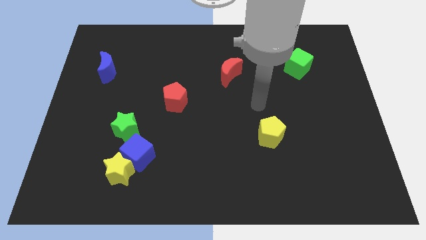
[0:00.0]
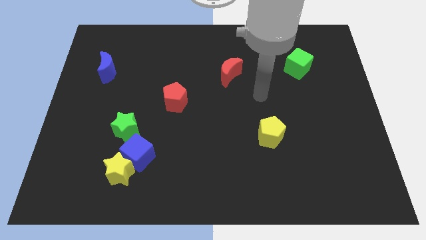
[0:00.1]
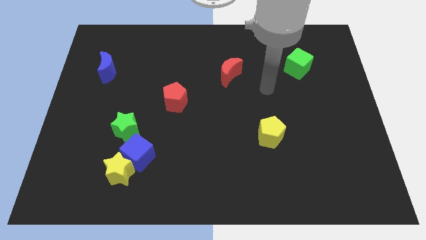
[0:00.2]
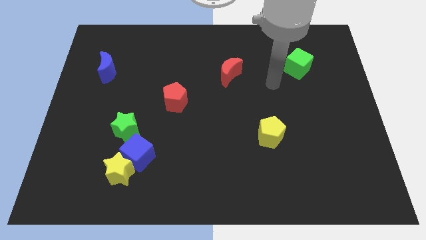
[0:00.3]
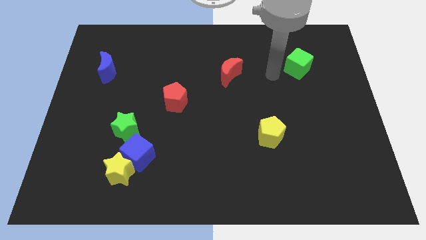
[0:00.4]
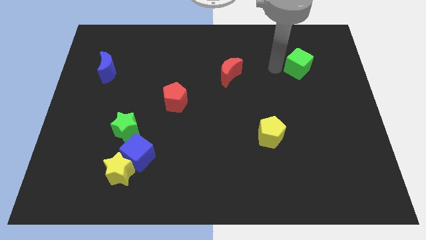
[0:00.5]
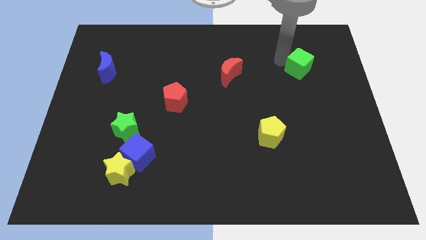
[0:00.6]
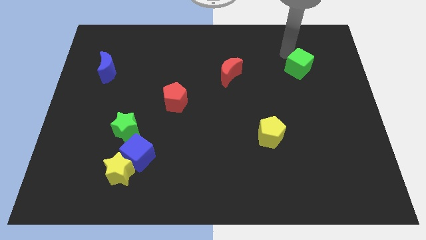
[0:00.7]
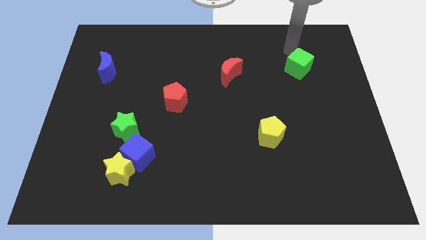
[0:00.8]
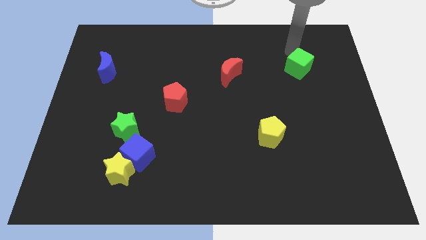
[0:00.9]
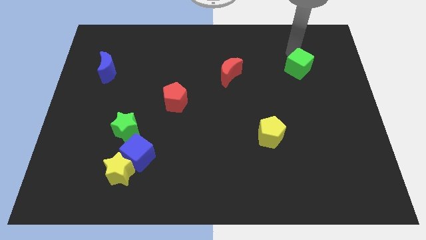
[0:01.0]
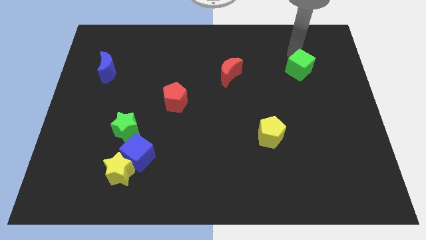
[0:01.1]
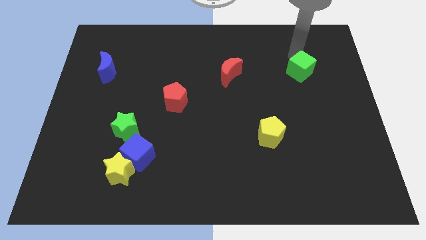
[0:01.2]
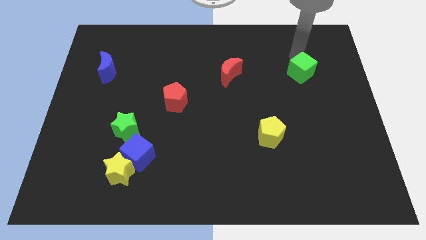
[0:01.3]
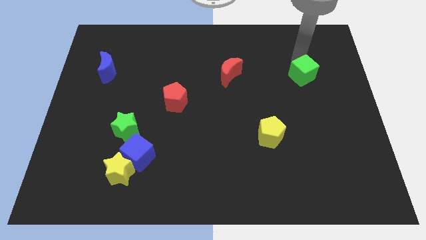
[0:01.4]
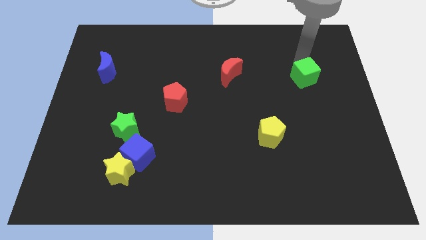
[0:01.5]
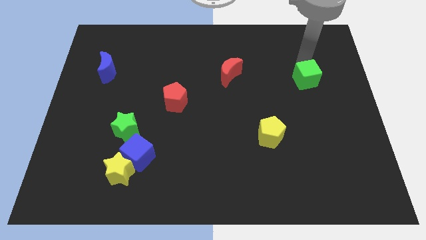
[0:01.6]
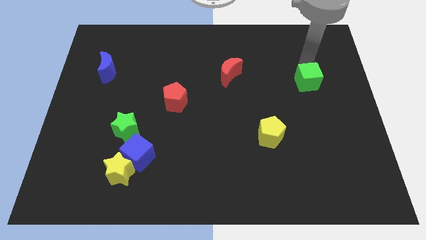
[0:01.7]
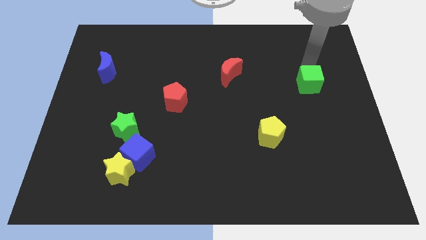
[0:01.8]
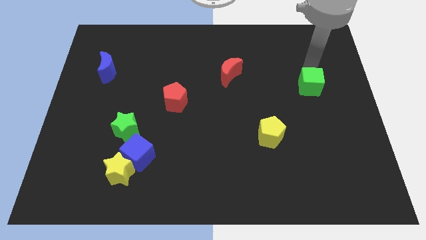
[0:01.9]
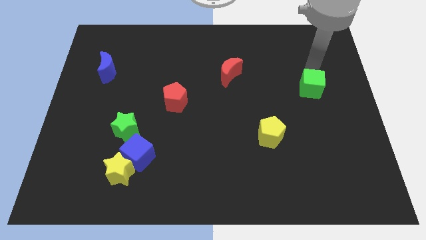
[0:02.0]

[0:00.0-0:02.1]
slide the green cube a little bit down

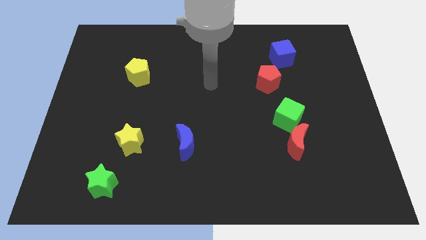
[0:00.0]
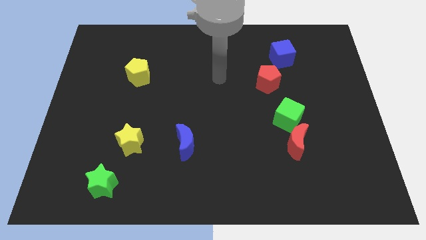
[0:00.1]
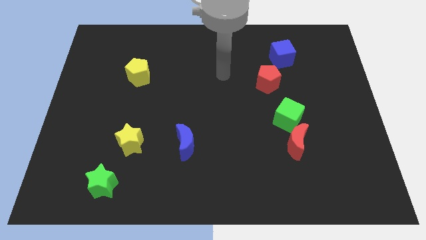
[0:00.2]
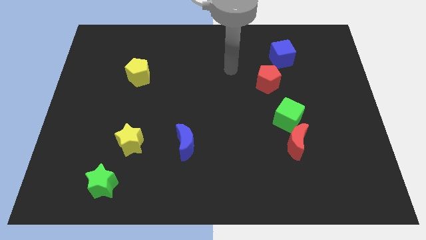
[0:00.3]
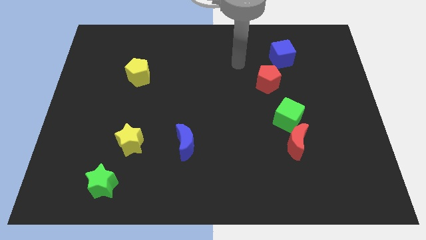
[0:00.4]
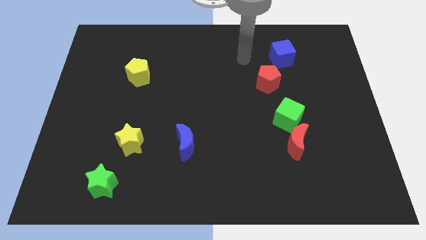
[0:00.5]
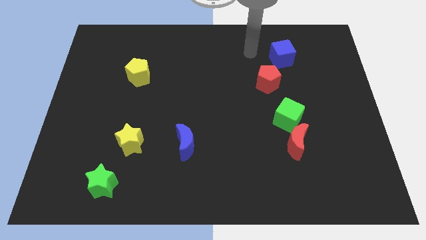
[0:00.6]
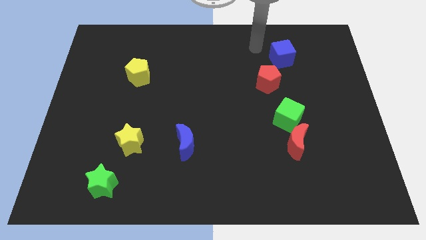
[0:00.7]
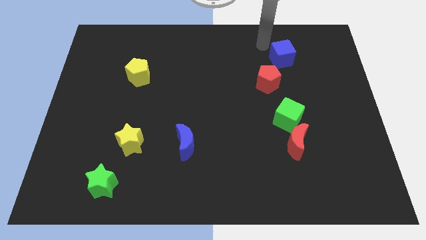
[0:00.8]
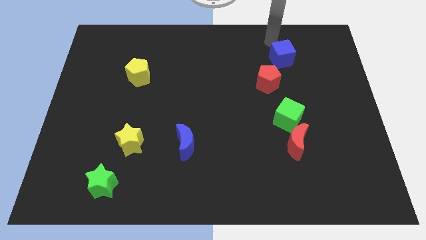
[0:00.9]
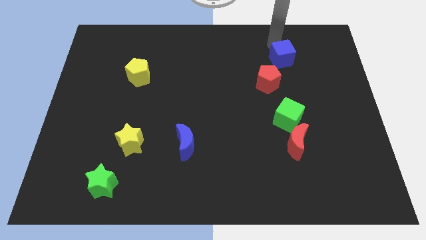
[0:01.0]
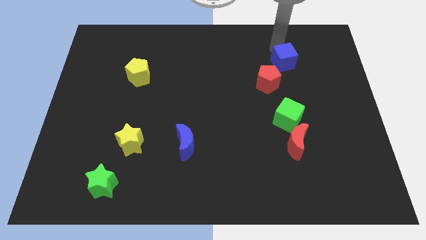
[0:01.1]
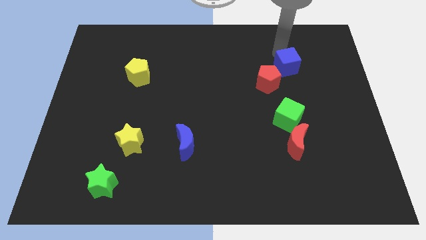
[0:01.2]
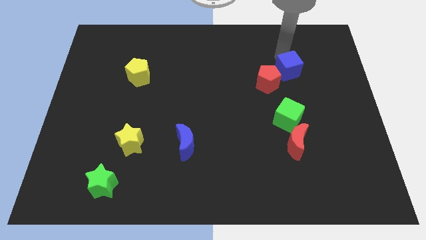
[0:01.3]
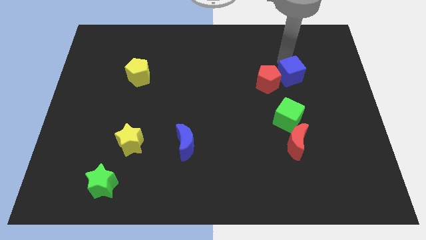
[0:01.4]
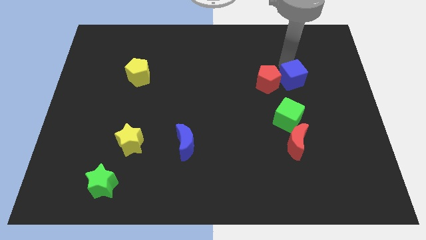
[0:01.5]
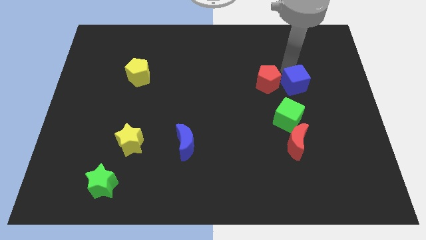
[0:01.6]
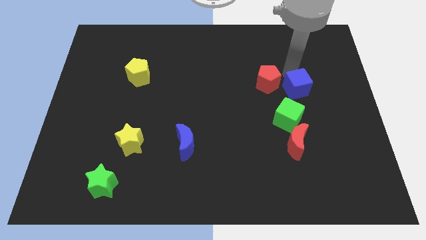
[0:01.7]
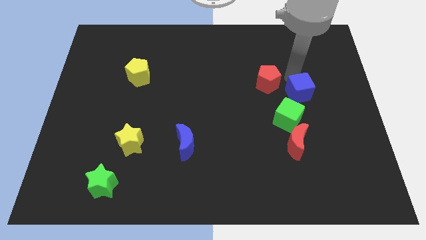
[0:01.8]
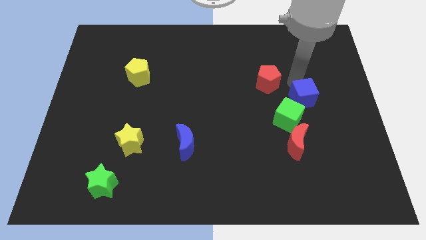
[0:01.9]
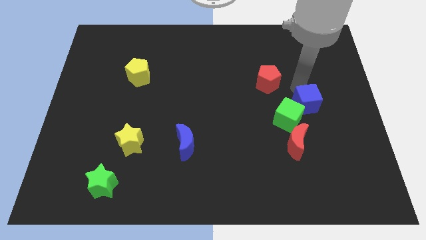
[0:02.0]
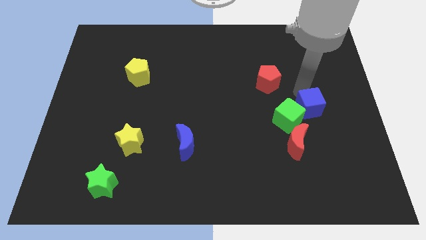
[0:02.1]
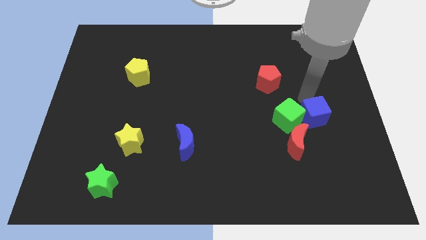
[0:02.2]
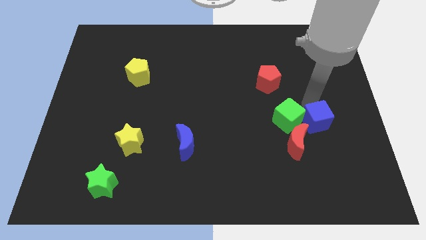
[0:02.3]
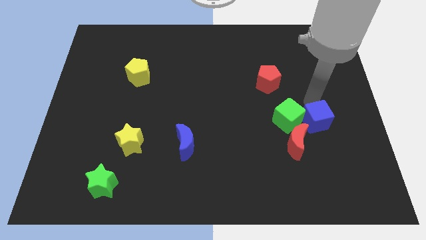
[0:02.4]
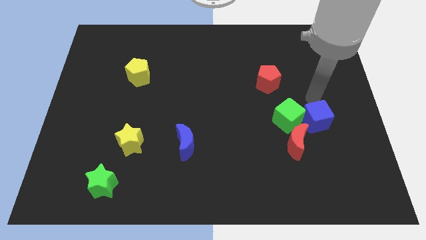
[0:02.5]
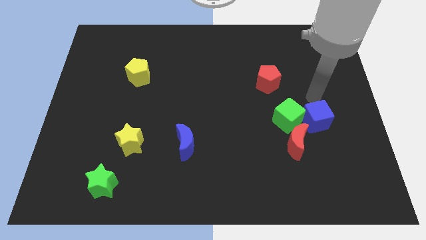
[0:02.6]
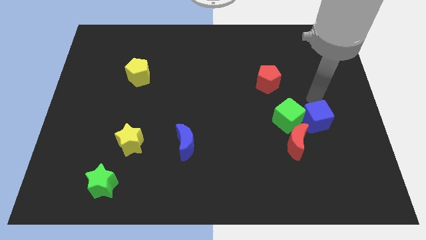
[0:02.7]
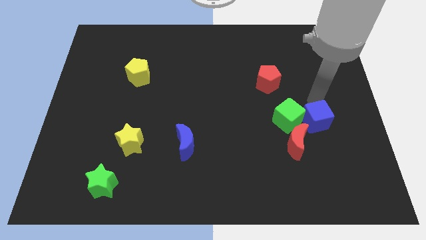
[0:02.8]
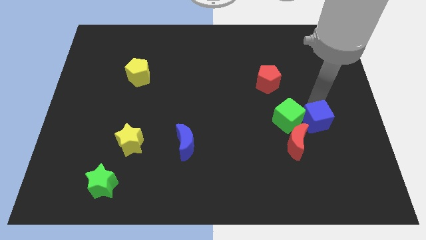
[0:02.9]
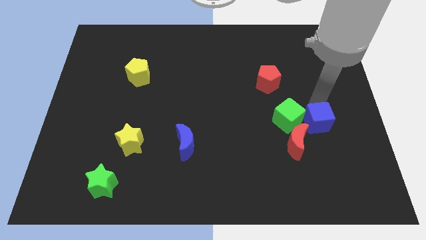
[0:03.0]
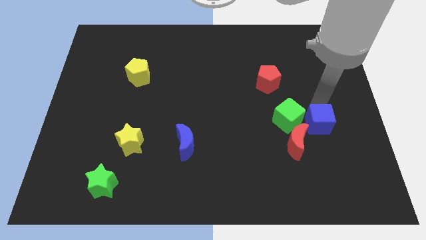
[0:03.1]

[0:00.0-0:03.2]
move the blue cube down

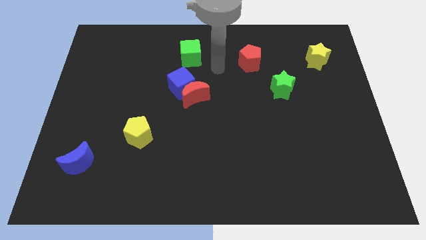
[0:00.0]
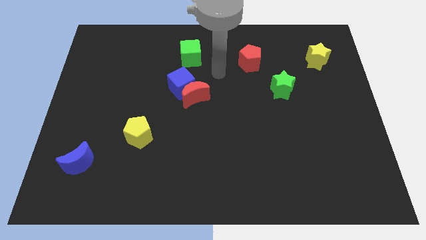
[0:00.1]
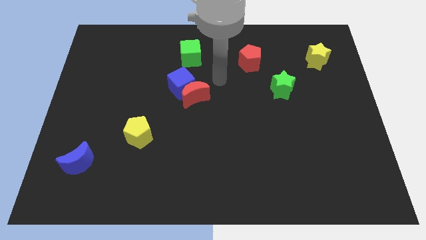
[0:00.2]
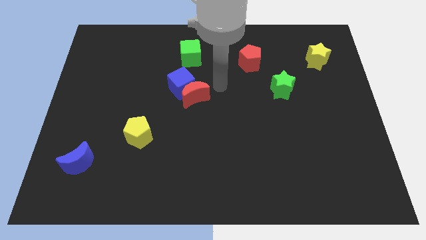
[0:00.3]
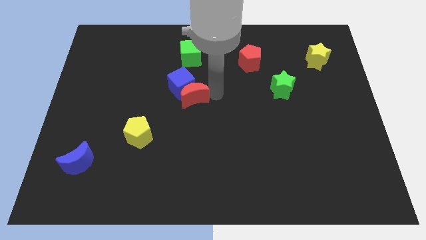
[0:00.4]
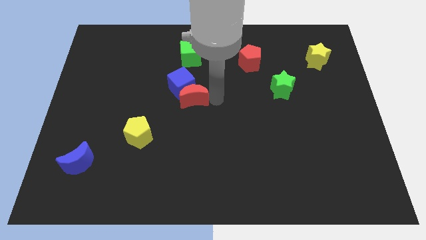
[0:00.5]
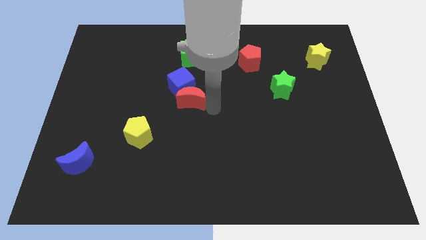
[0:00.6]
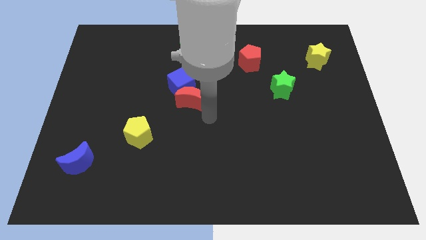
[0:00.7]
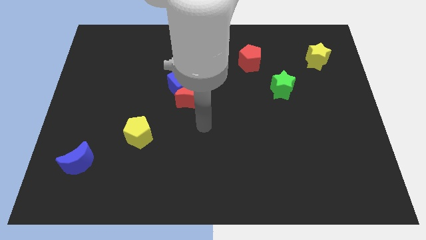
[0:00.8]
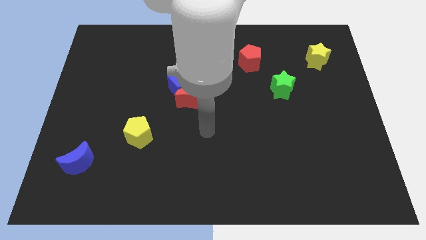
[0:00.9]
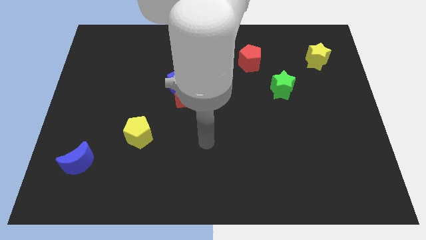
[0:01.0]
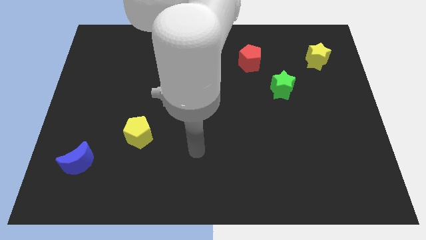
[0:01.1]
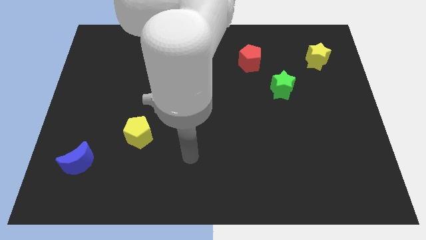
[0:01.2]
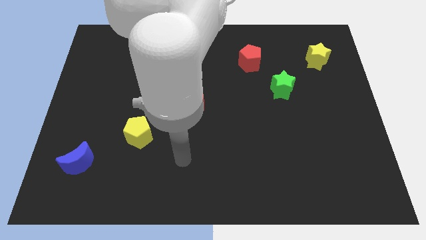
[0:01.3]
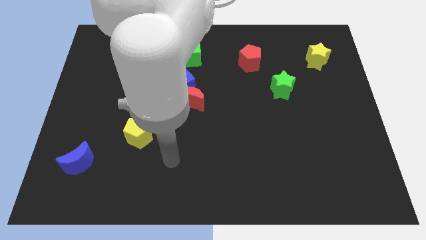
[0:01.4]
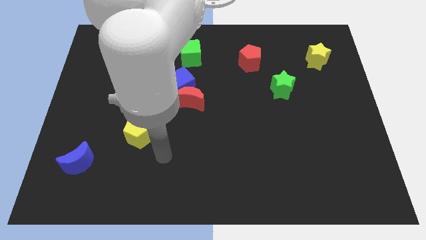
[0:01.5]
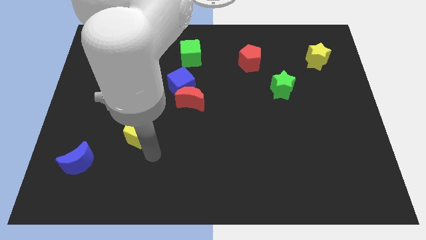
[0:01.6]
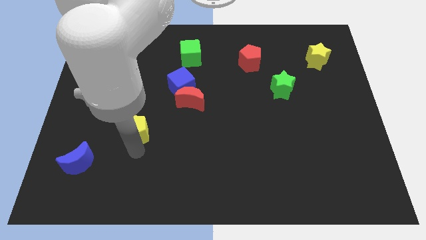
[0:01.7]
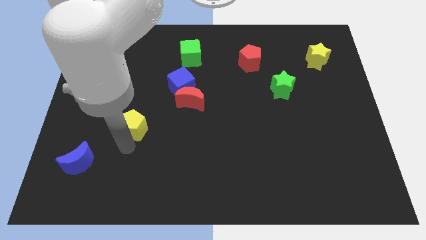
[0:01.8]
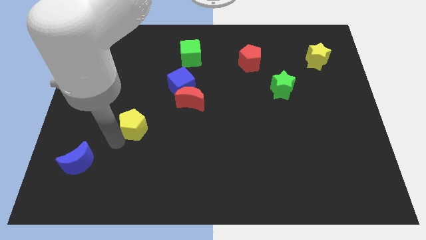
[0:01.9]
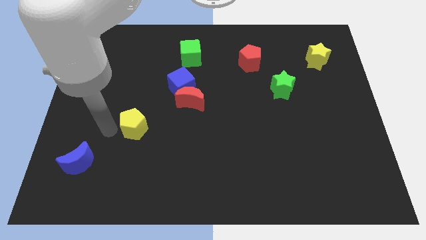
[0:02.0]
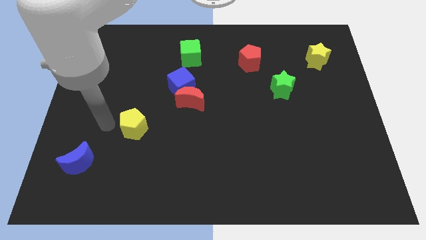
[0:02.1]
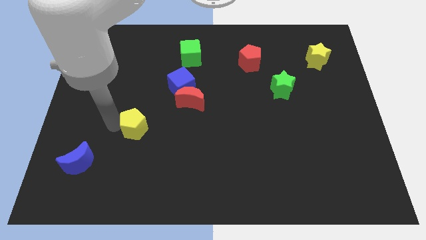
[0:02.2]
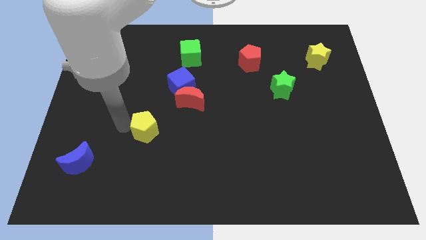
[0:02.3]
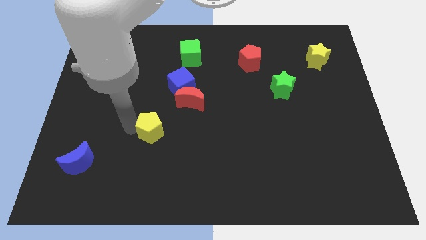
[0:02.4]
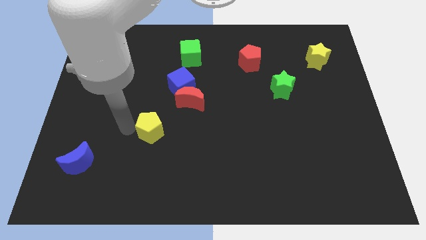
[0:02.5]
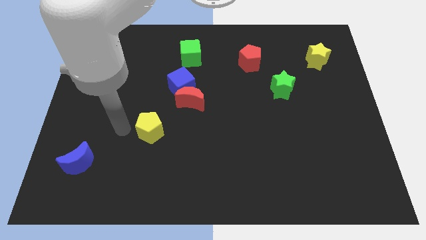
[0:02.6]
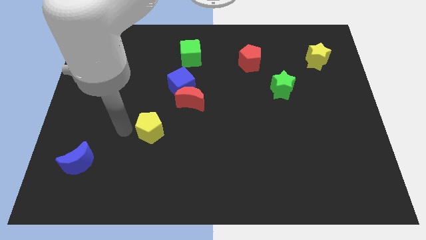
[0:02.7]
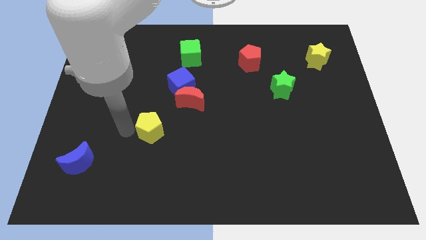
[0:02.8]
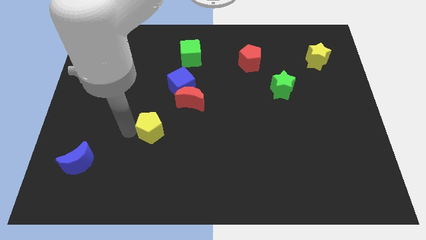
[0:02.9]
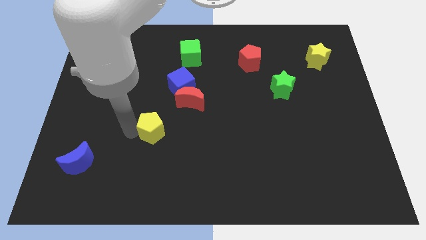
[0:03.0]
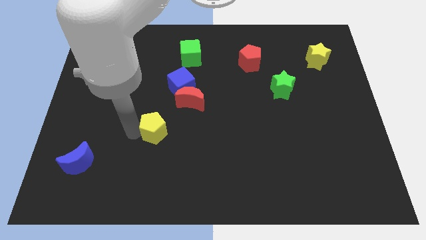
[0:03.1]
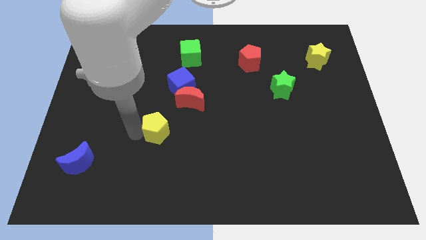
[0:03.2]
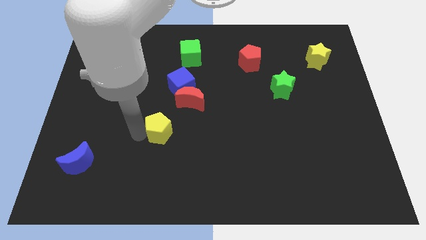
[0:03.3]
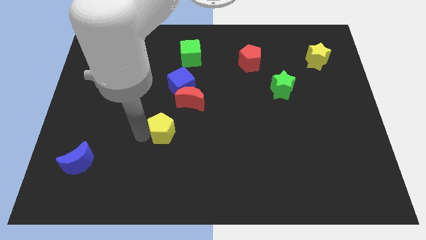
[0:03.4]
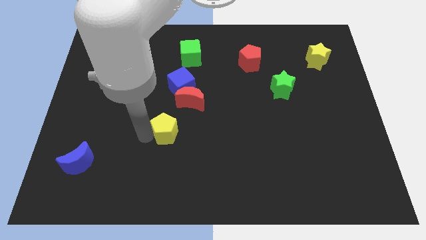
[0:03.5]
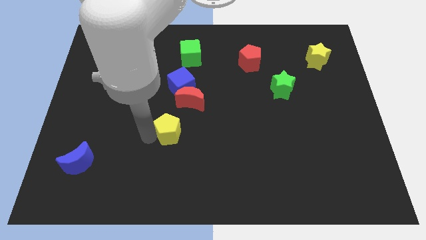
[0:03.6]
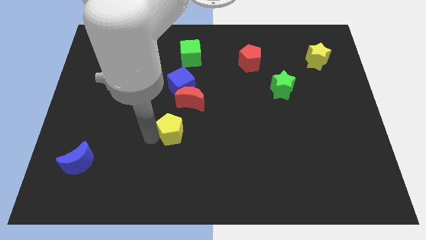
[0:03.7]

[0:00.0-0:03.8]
slightly move the yellow pentagon right
